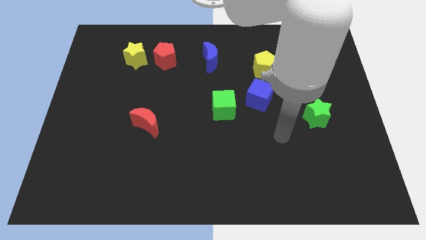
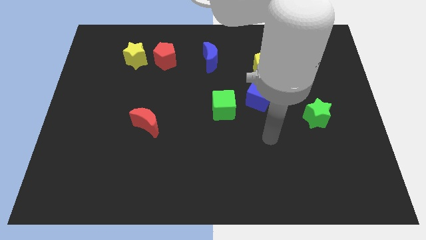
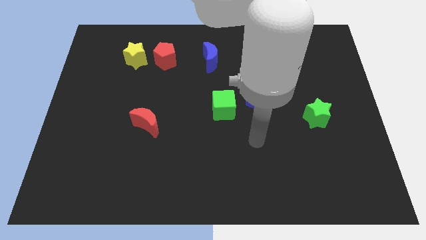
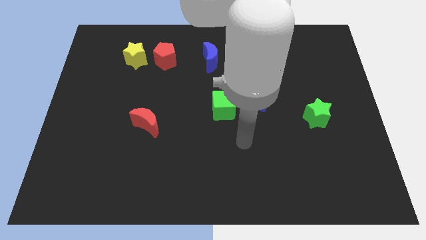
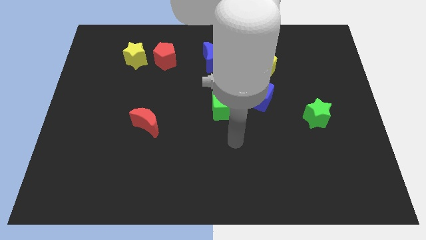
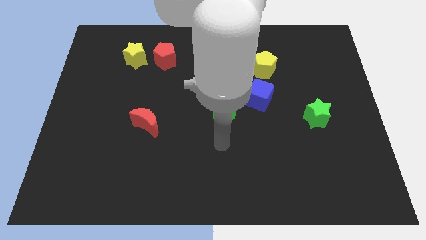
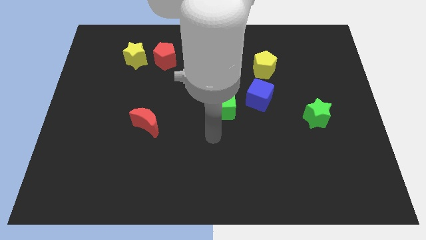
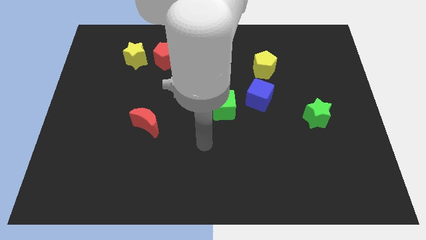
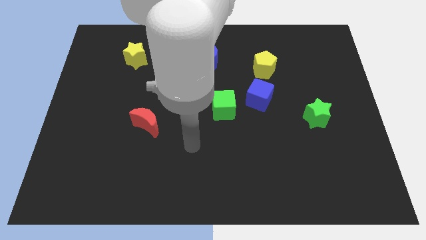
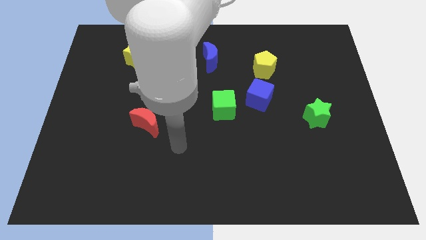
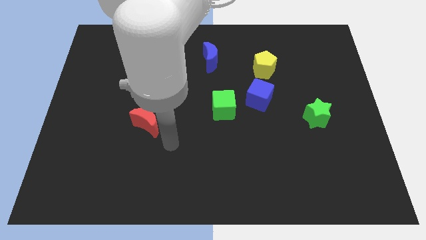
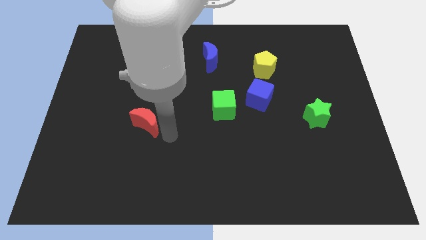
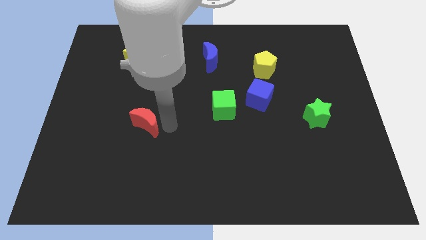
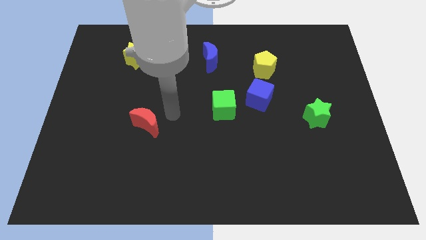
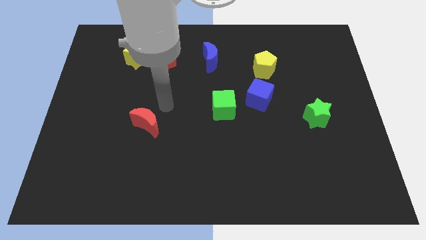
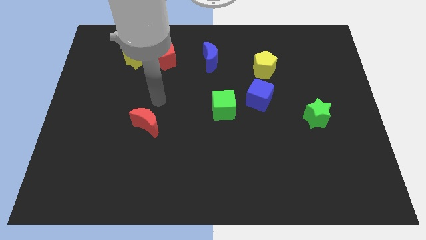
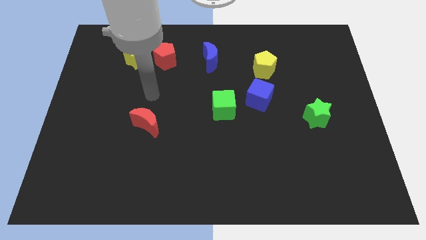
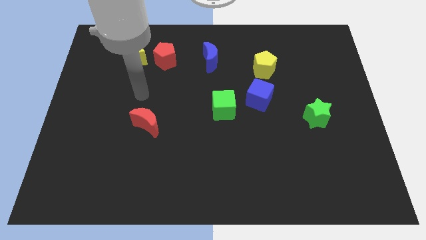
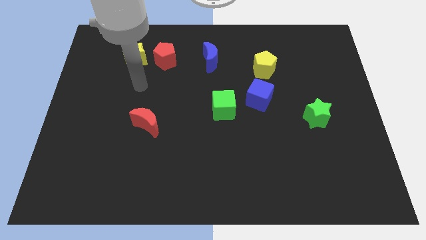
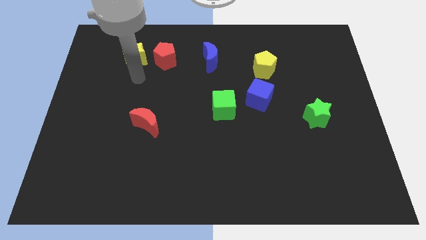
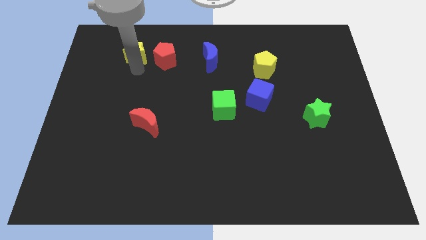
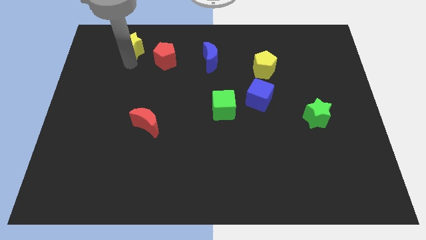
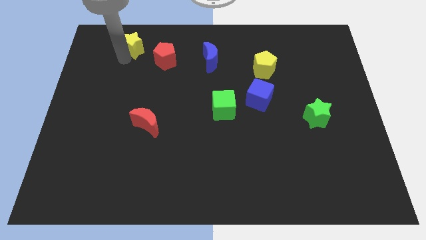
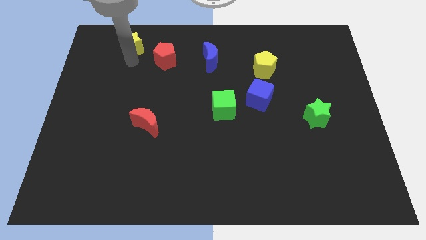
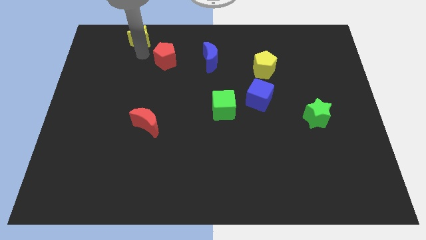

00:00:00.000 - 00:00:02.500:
separate the red pentagon from the yellow star

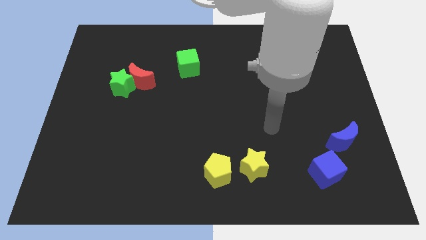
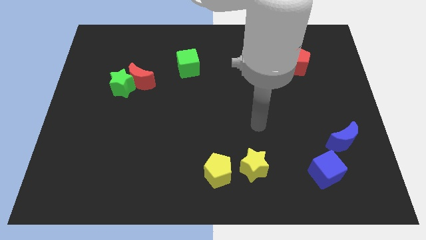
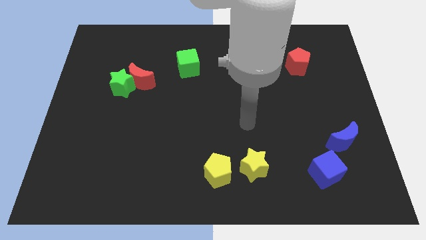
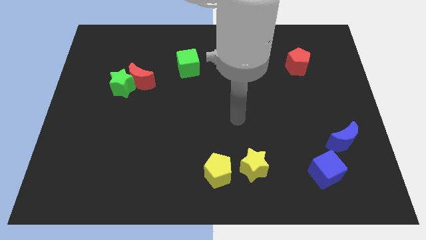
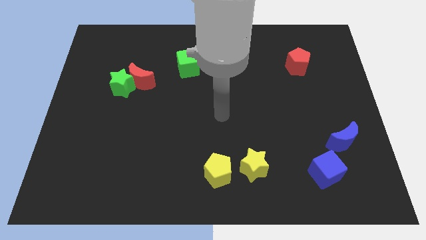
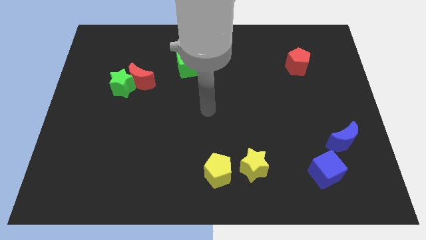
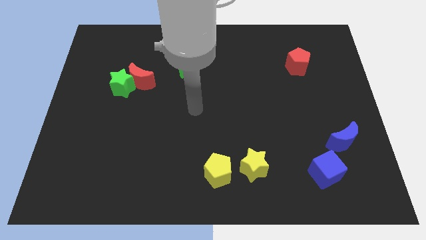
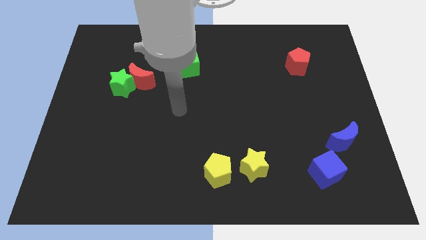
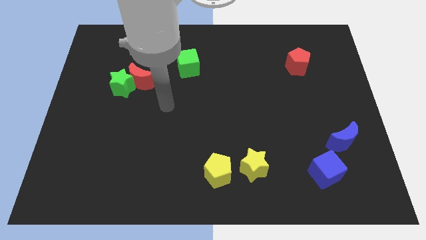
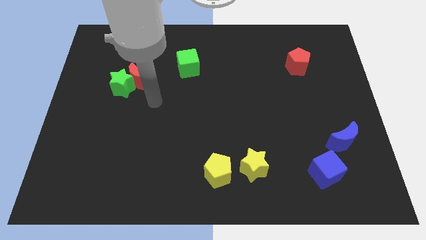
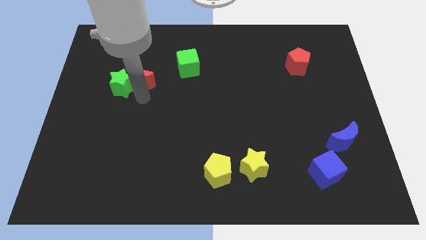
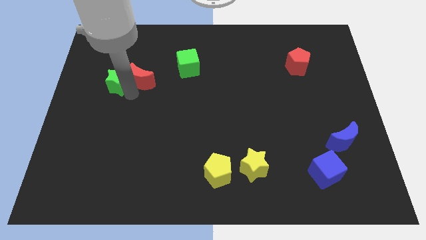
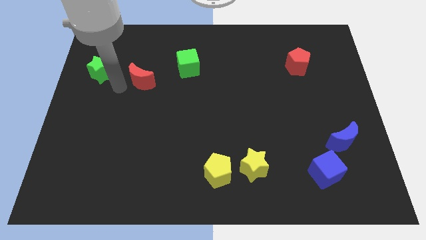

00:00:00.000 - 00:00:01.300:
move the red moon away from the green star

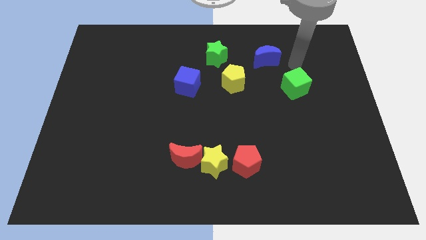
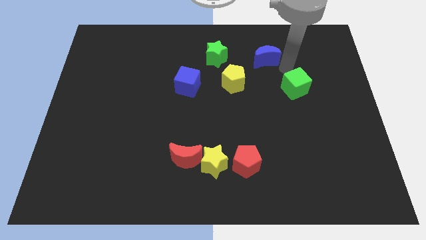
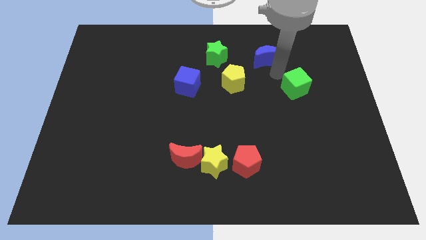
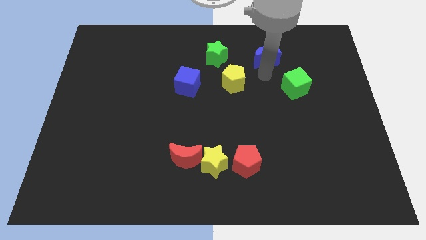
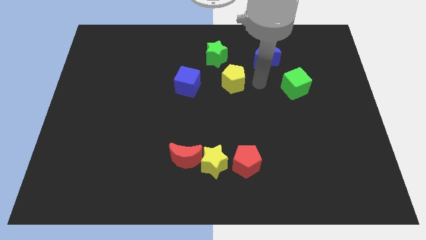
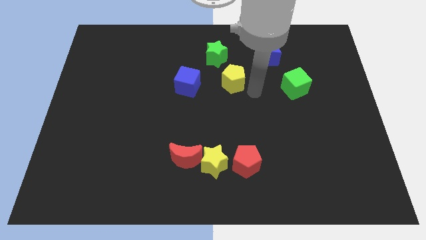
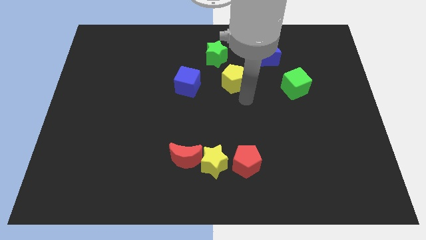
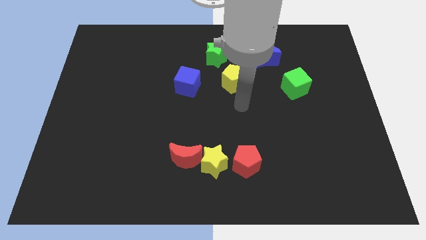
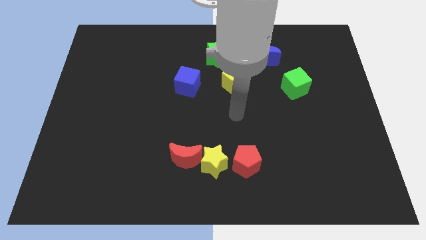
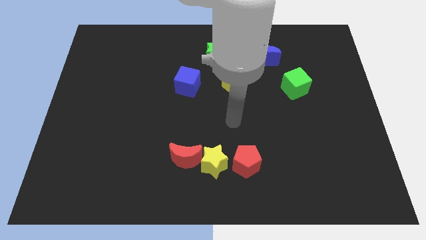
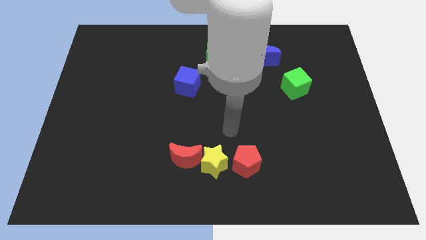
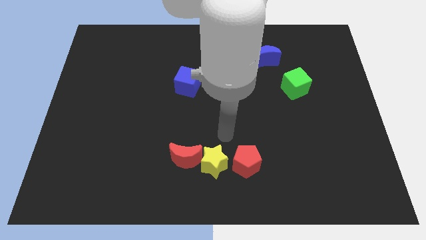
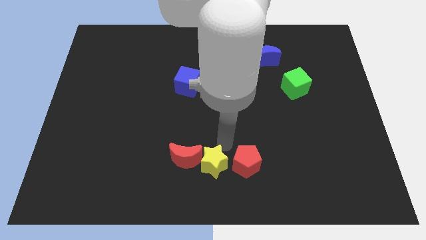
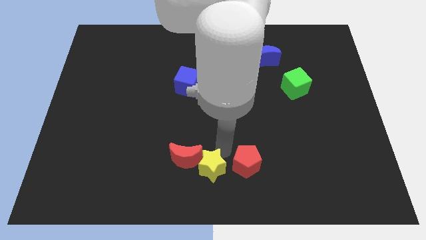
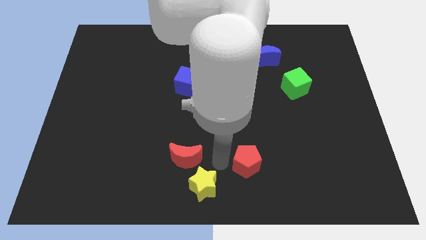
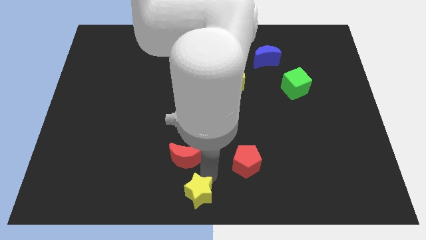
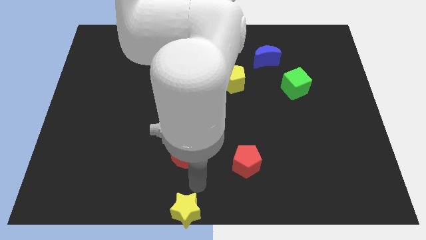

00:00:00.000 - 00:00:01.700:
move the red moon away from the yellow star

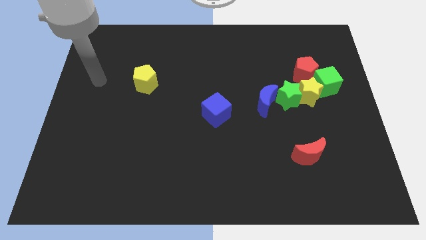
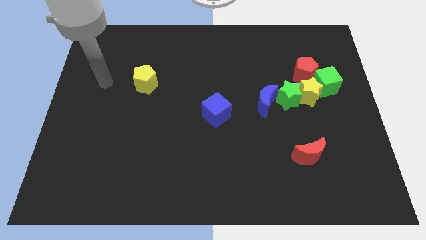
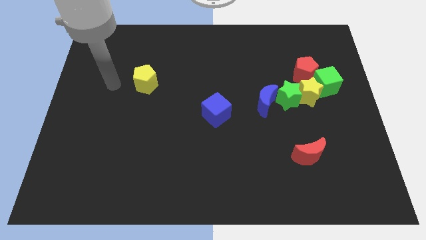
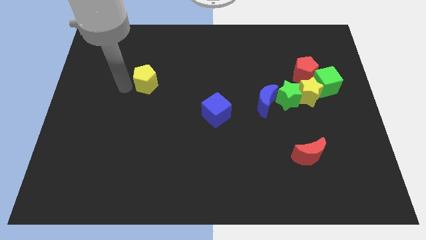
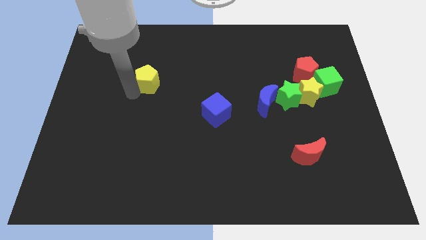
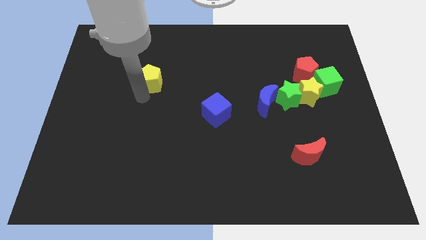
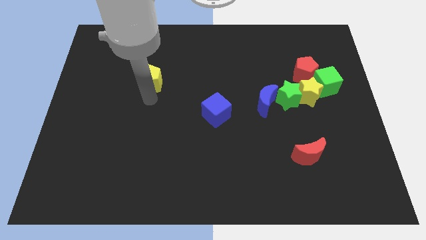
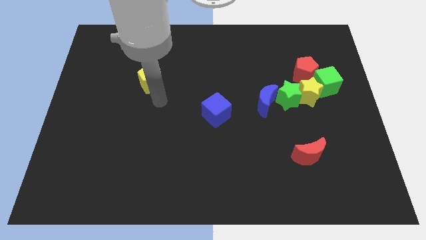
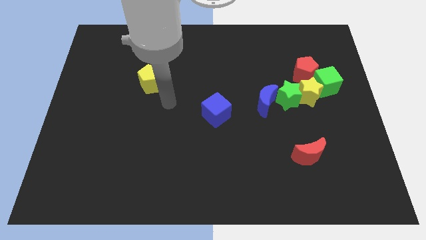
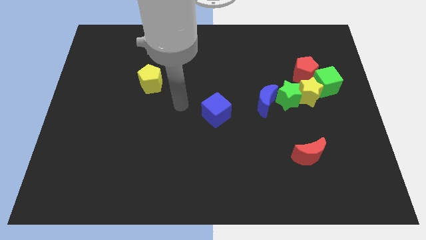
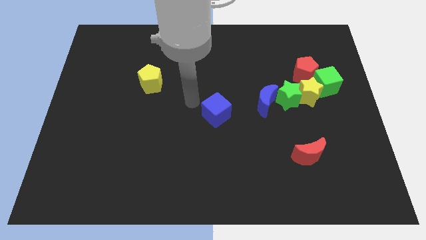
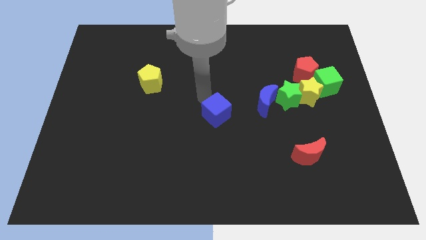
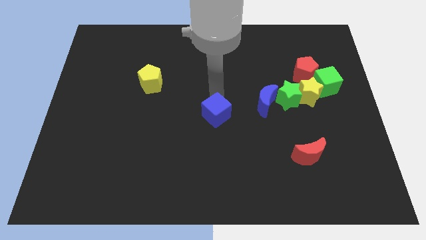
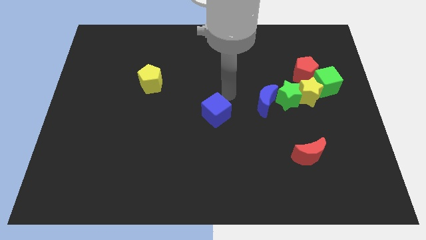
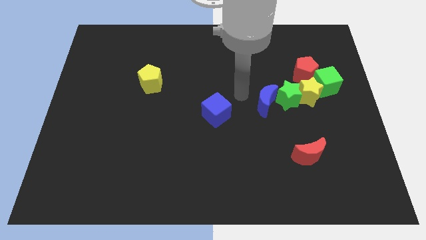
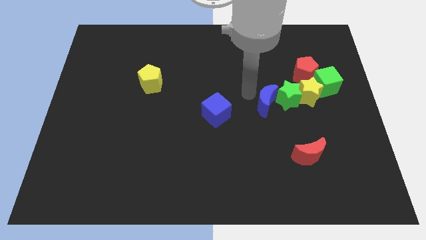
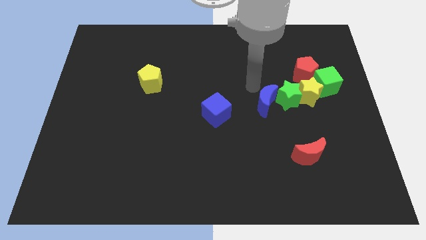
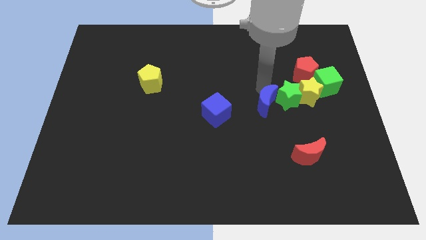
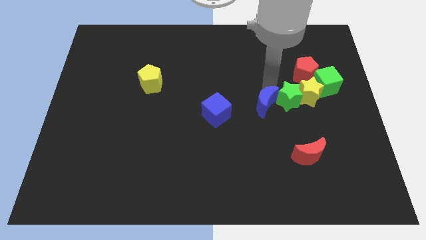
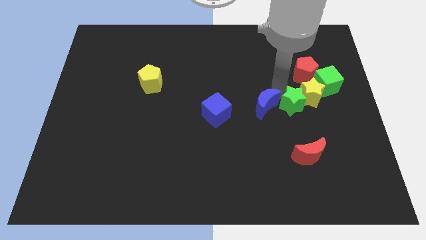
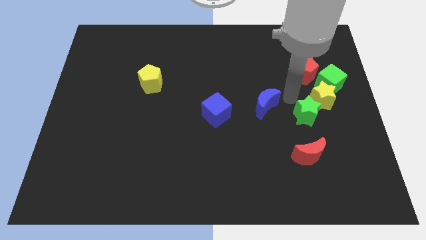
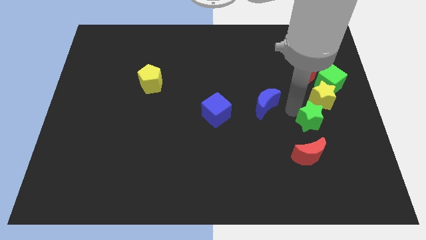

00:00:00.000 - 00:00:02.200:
move the blue moon away from the green star

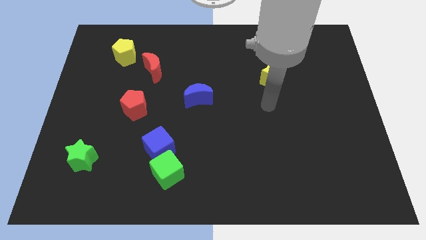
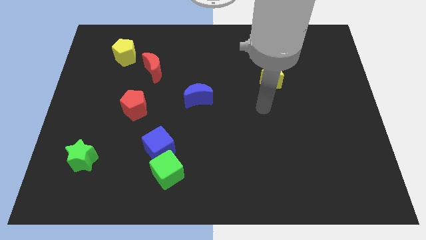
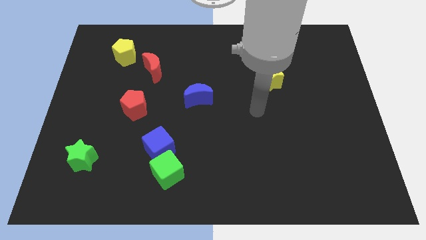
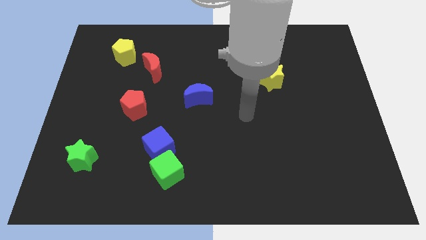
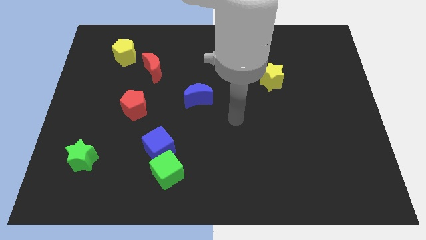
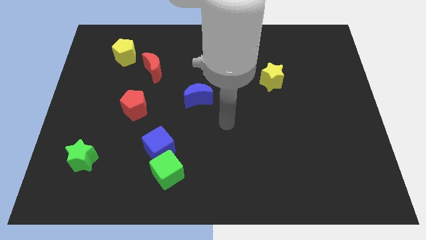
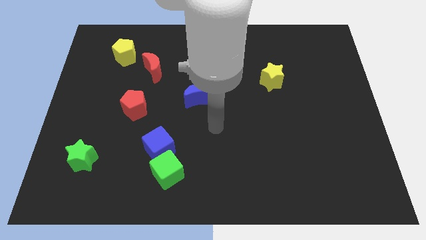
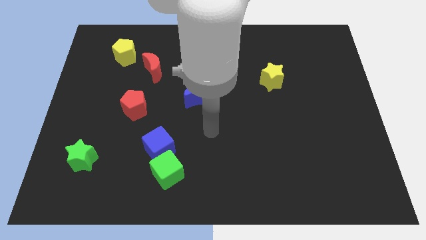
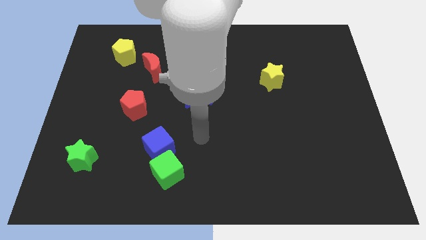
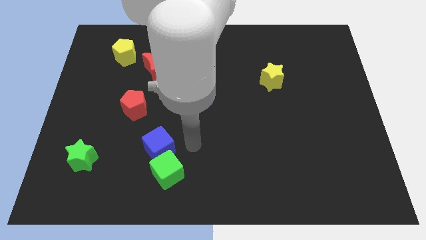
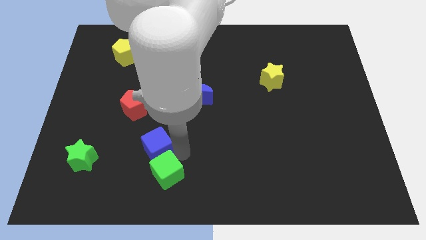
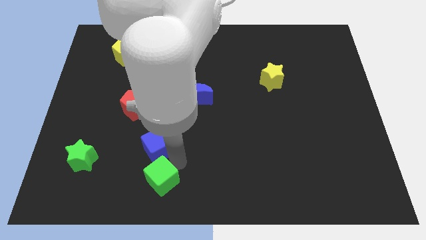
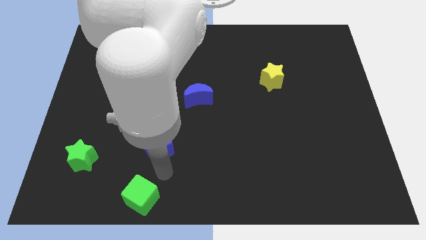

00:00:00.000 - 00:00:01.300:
move the blue cube away from the green cube

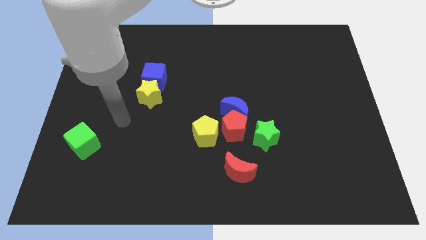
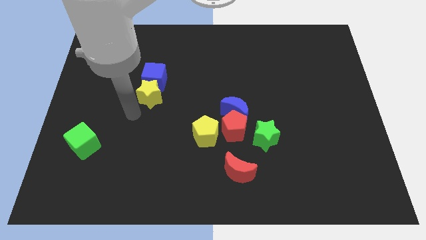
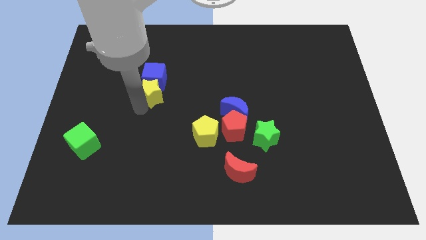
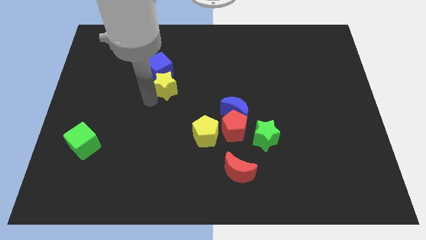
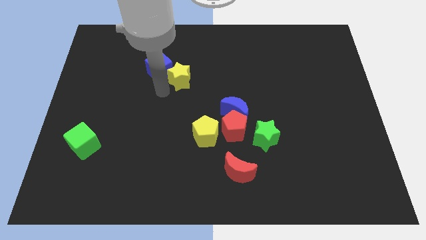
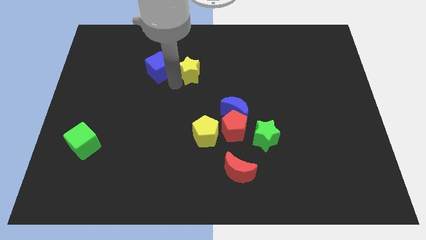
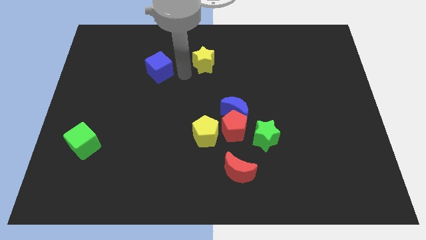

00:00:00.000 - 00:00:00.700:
separate the blue cube from the yellow star
